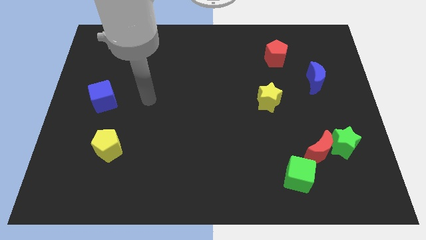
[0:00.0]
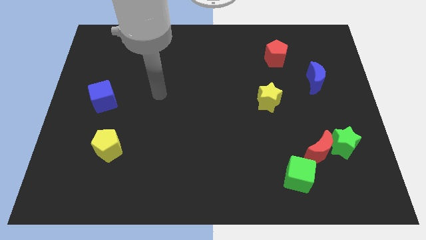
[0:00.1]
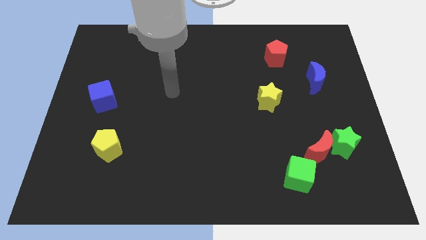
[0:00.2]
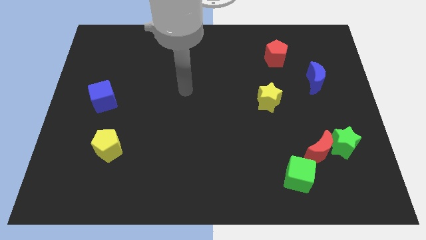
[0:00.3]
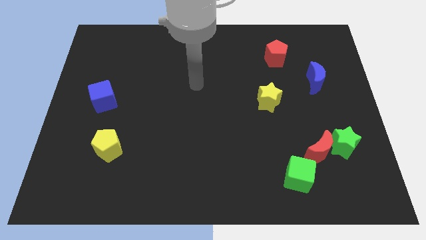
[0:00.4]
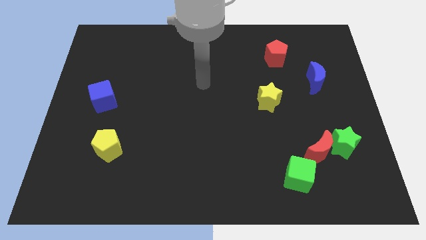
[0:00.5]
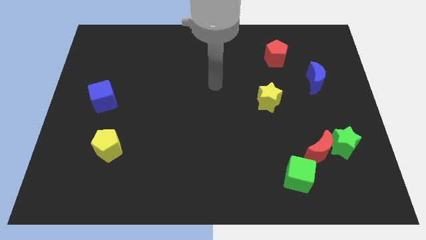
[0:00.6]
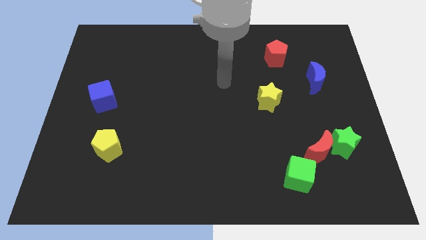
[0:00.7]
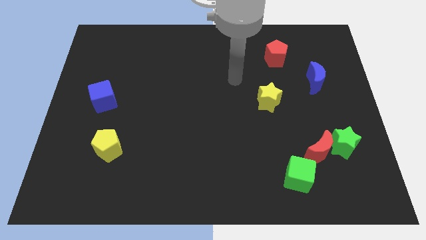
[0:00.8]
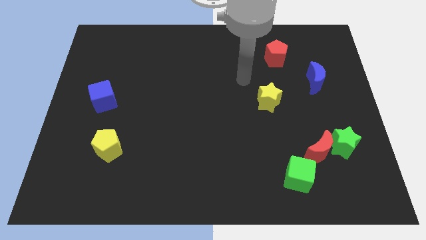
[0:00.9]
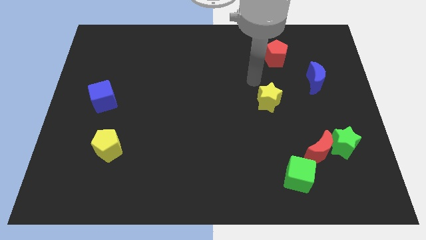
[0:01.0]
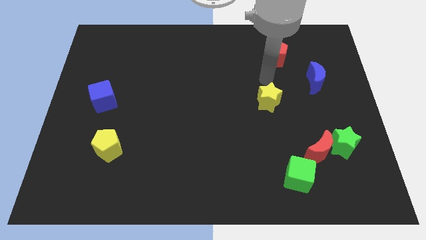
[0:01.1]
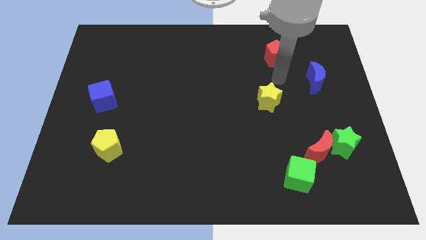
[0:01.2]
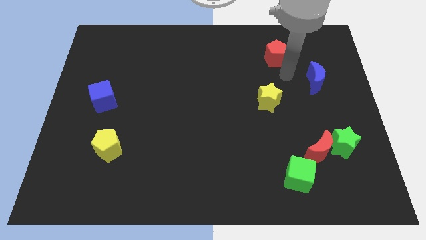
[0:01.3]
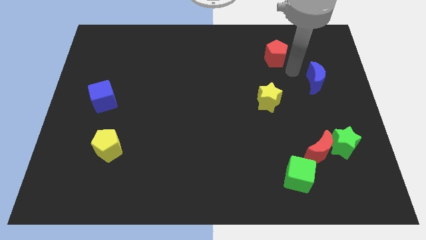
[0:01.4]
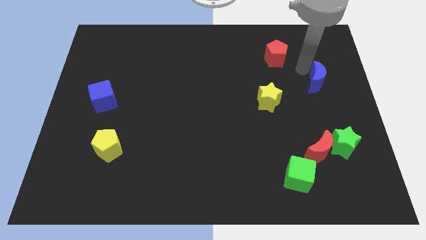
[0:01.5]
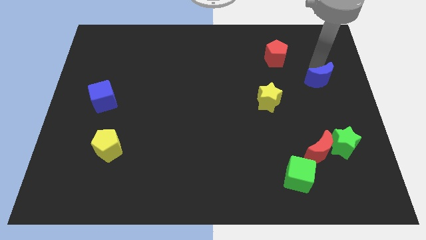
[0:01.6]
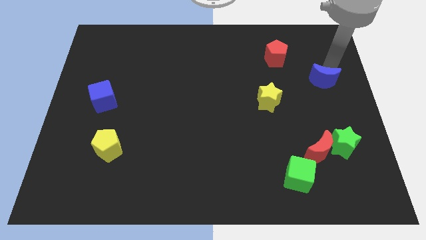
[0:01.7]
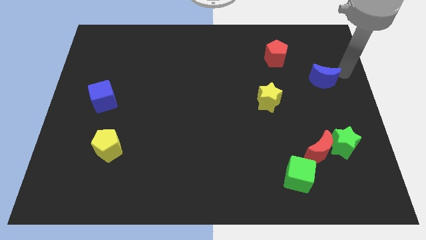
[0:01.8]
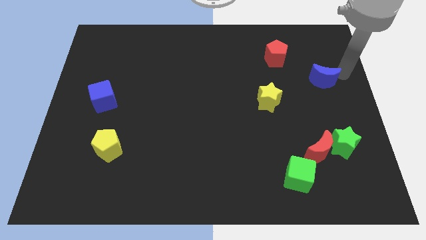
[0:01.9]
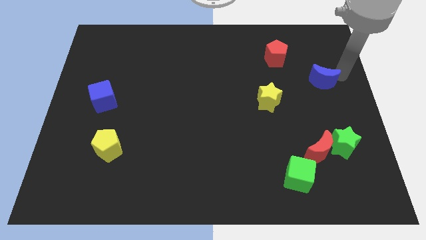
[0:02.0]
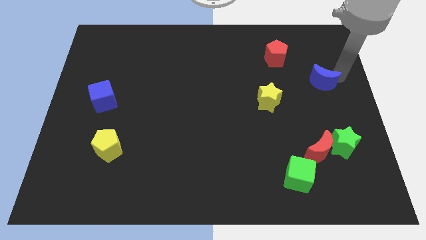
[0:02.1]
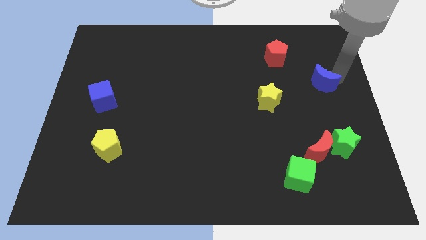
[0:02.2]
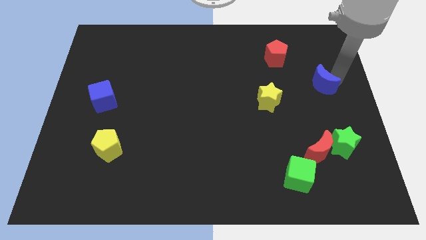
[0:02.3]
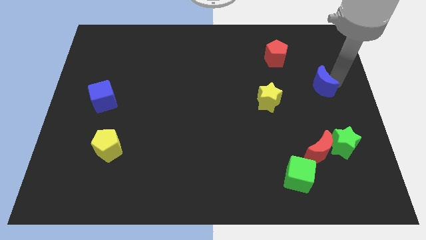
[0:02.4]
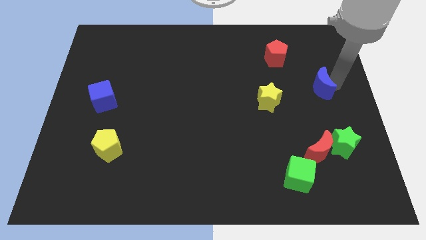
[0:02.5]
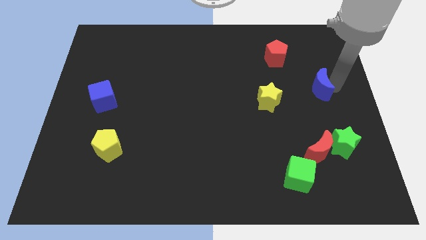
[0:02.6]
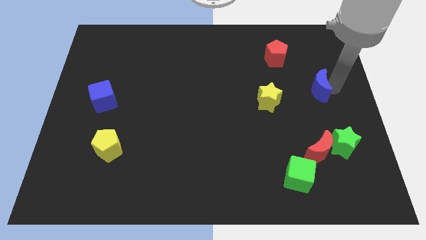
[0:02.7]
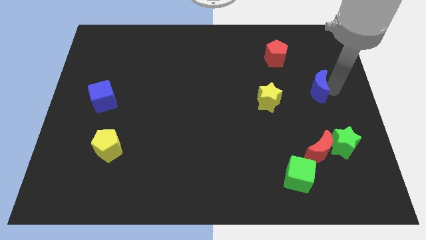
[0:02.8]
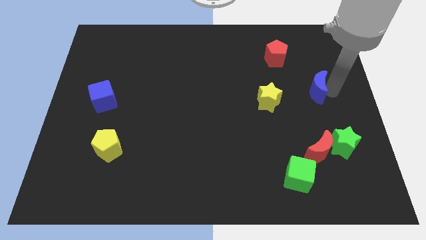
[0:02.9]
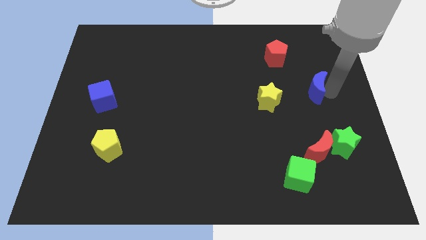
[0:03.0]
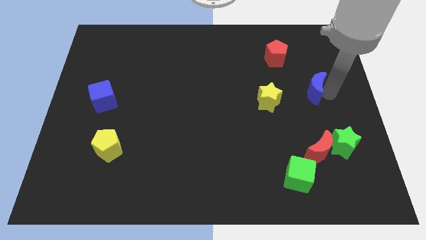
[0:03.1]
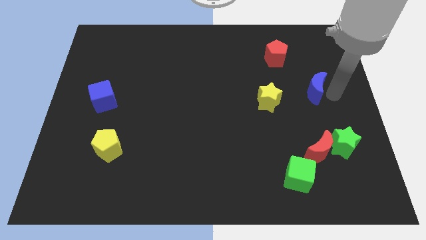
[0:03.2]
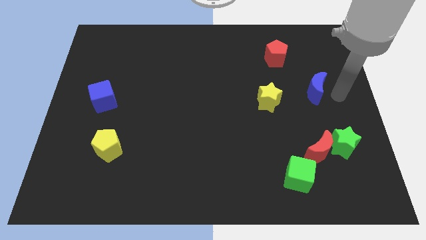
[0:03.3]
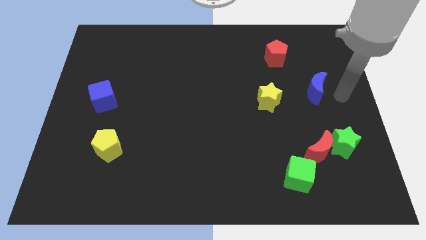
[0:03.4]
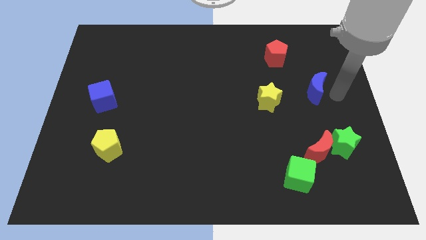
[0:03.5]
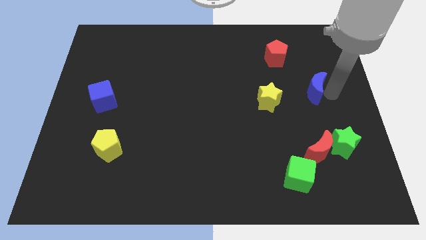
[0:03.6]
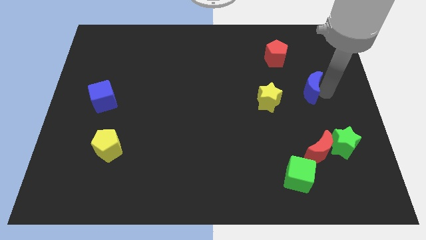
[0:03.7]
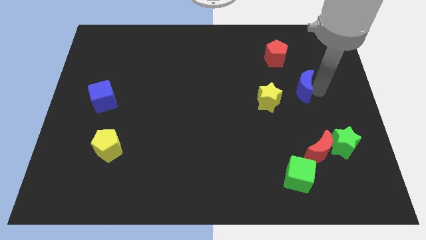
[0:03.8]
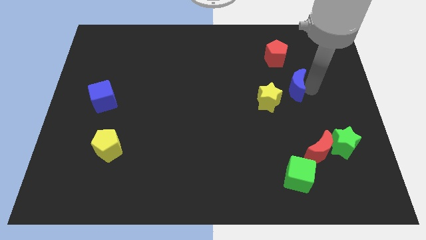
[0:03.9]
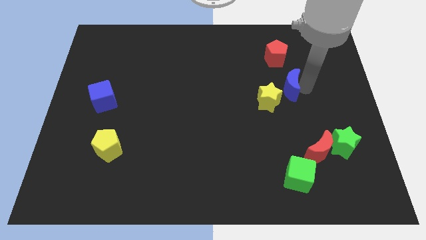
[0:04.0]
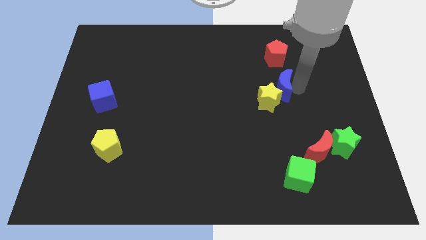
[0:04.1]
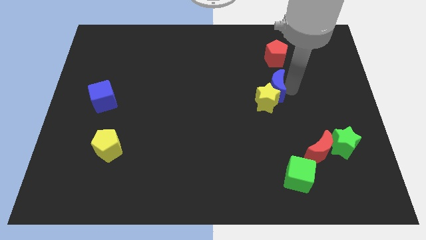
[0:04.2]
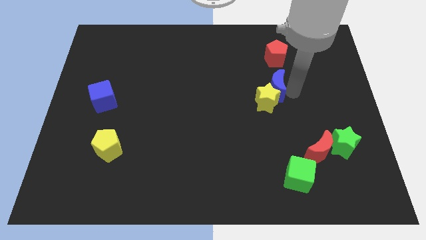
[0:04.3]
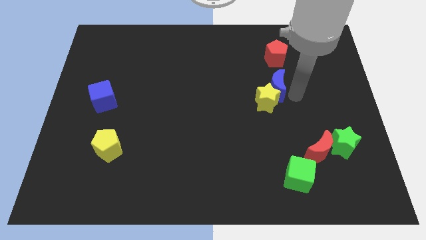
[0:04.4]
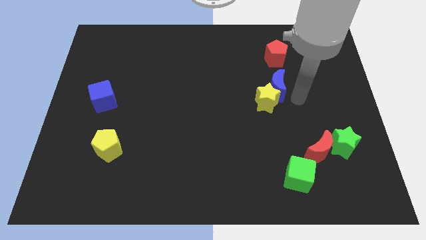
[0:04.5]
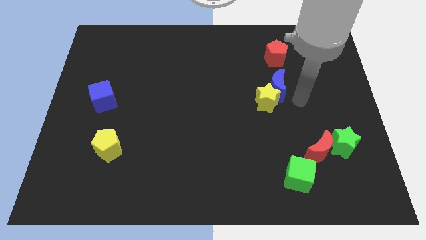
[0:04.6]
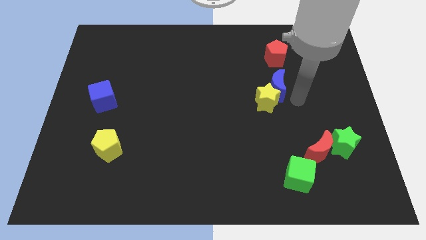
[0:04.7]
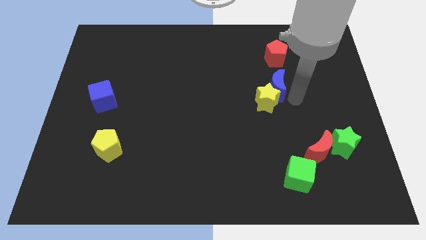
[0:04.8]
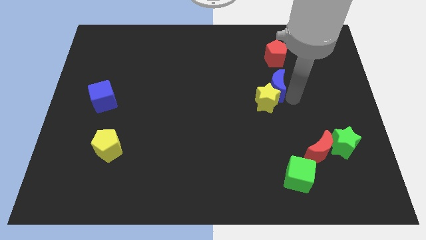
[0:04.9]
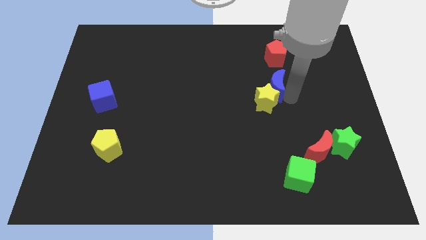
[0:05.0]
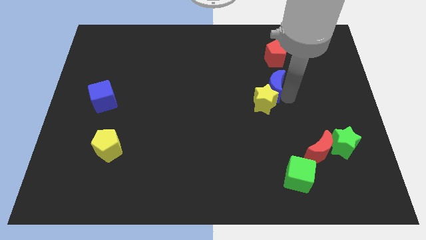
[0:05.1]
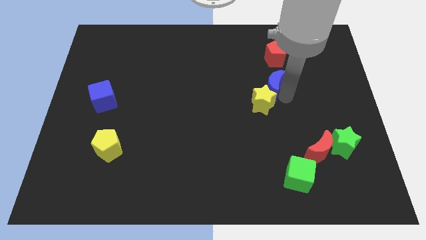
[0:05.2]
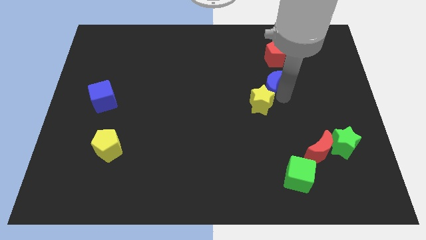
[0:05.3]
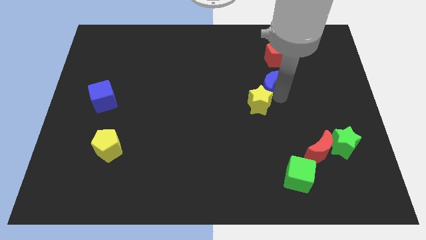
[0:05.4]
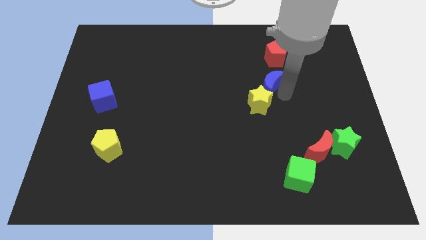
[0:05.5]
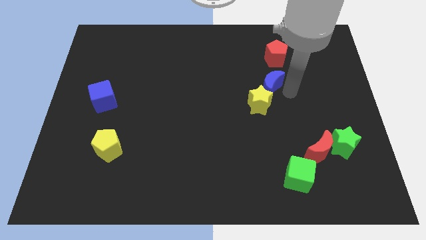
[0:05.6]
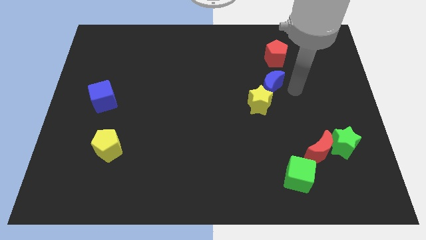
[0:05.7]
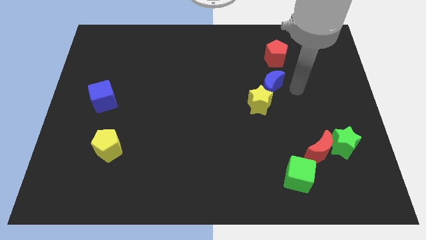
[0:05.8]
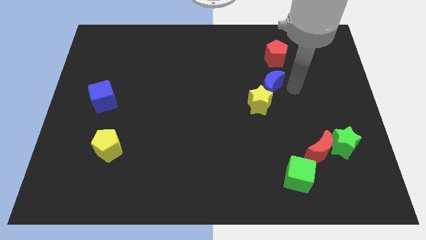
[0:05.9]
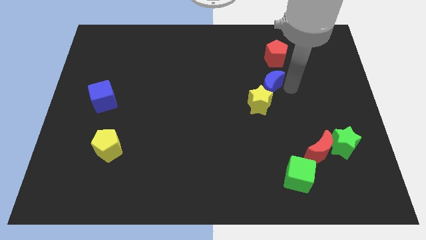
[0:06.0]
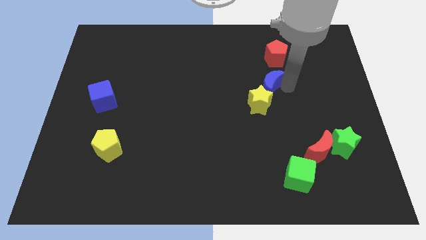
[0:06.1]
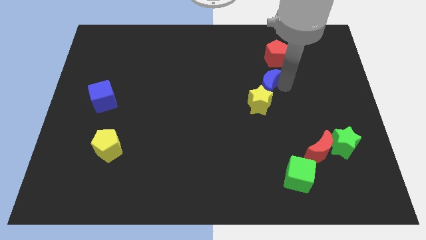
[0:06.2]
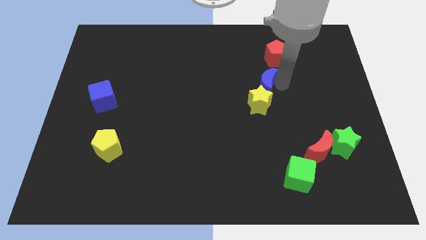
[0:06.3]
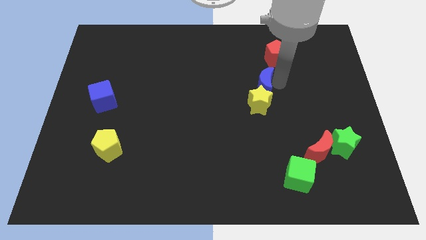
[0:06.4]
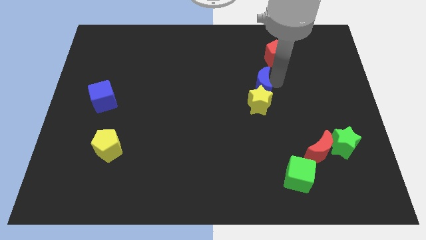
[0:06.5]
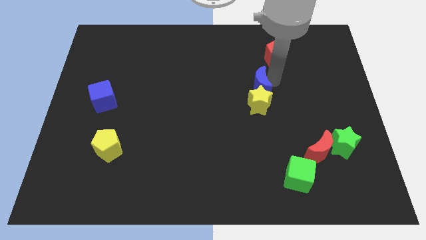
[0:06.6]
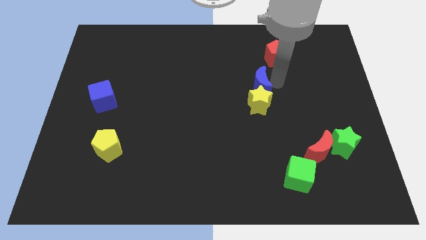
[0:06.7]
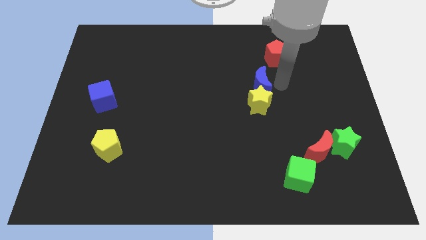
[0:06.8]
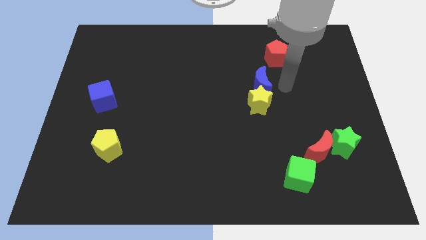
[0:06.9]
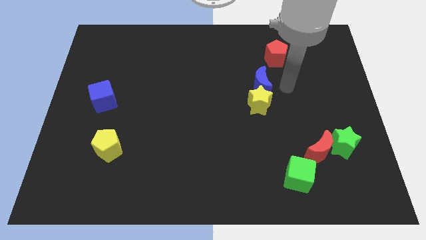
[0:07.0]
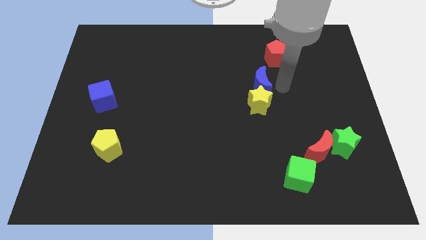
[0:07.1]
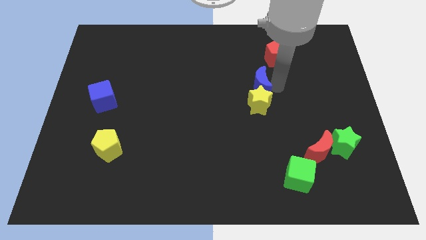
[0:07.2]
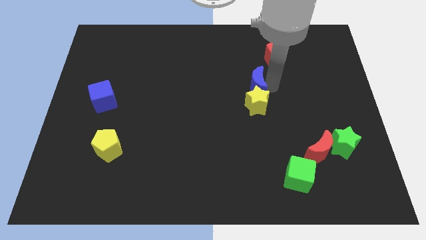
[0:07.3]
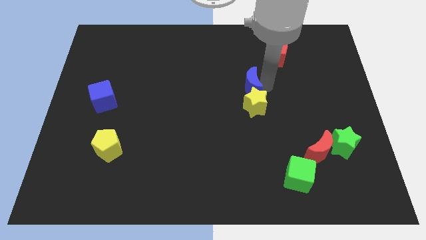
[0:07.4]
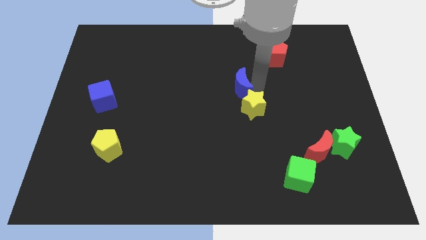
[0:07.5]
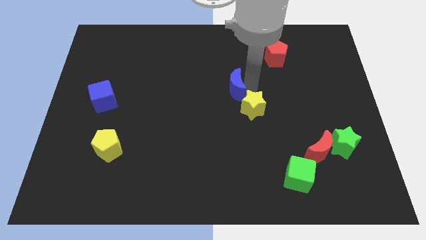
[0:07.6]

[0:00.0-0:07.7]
slide the blue moon left

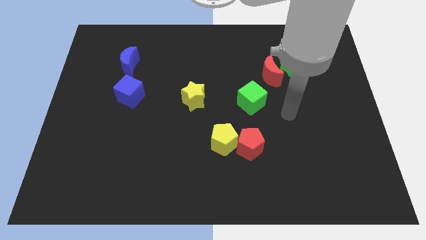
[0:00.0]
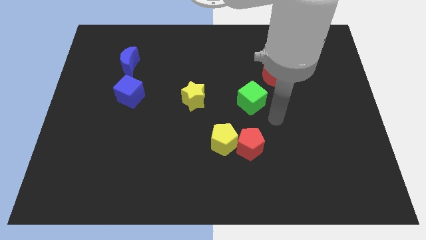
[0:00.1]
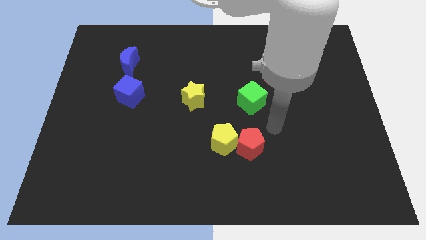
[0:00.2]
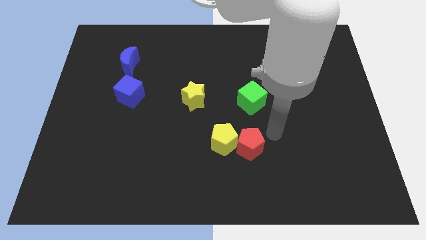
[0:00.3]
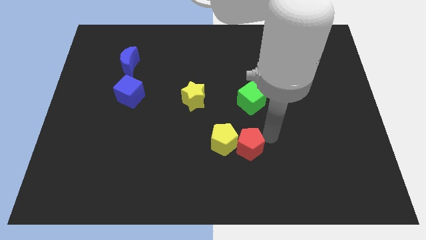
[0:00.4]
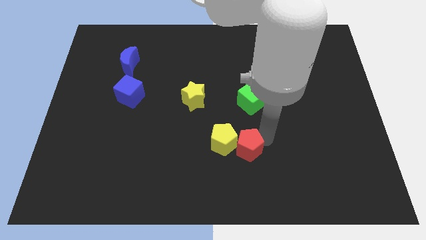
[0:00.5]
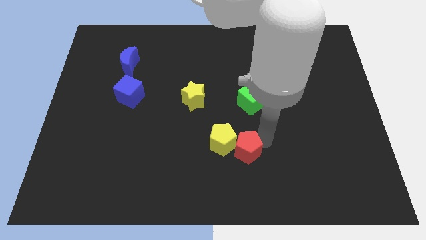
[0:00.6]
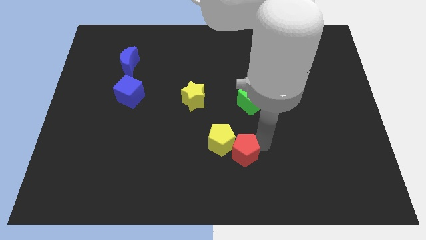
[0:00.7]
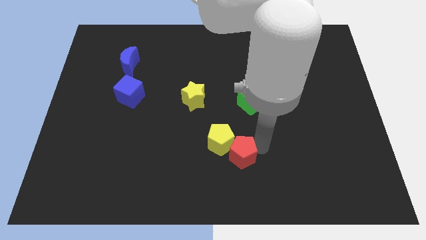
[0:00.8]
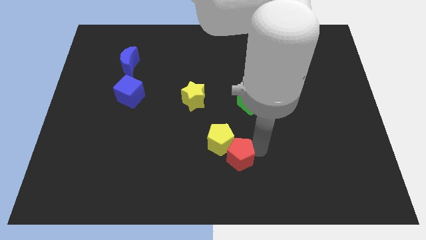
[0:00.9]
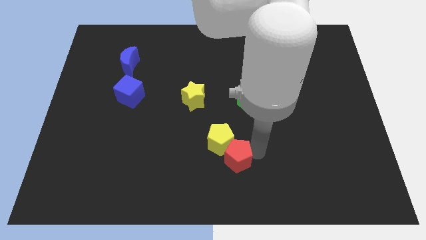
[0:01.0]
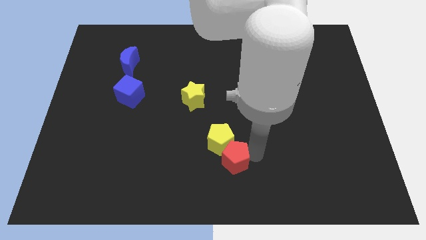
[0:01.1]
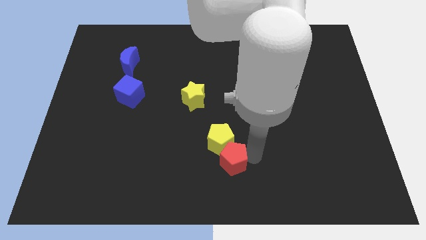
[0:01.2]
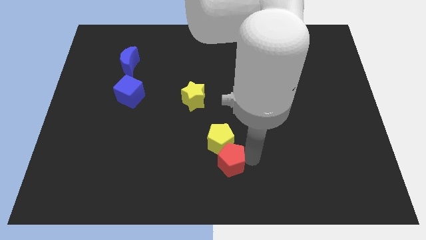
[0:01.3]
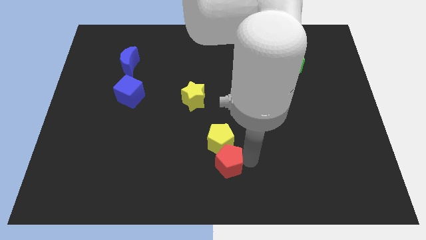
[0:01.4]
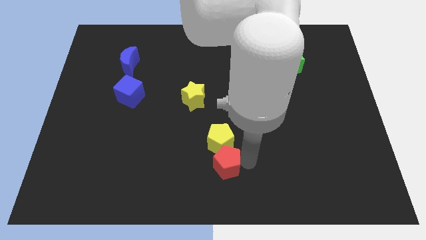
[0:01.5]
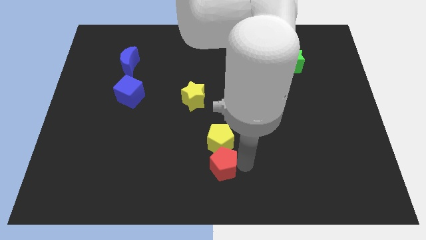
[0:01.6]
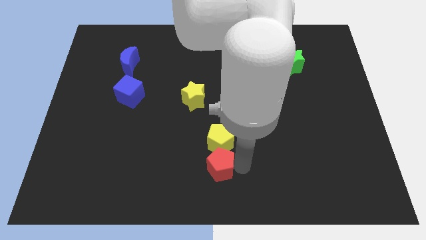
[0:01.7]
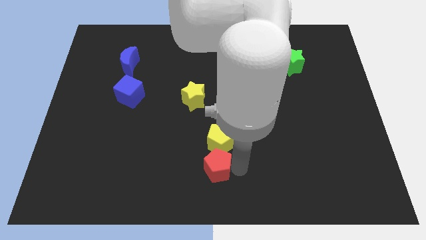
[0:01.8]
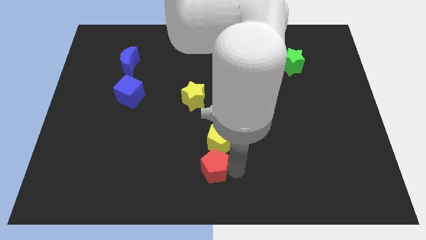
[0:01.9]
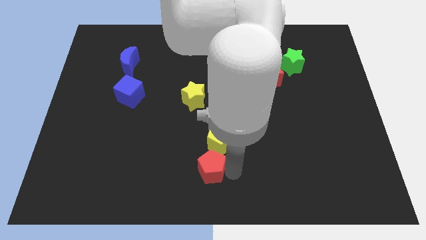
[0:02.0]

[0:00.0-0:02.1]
slightly move the red pentagon to the left
